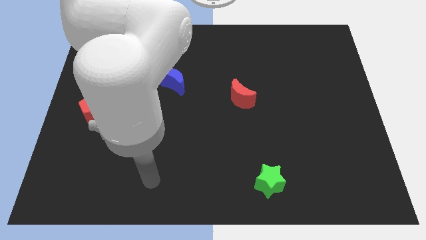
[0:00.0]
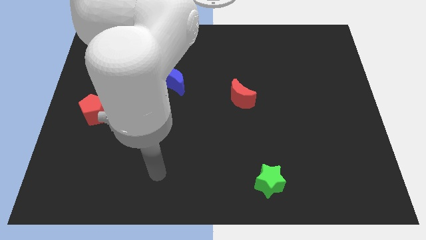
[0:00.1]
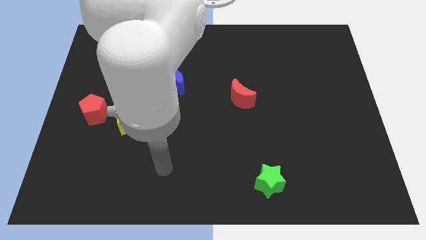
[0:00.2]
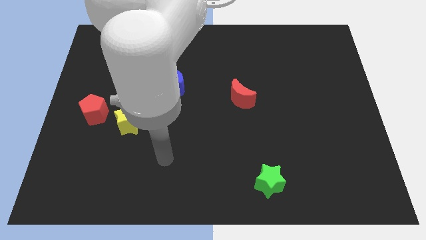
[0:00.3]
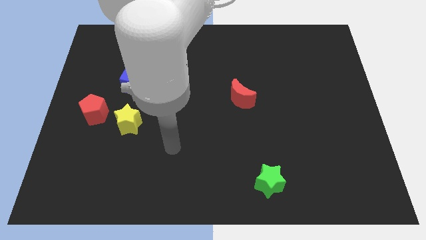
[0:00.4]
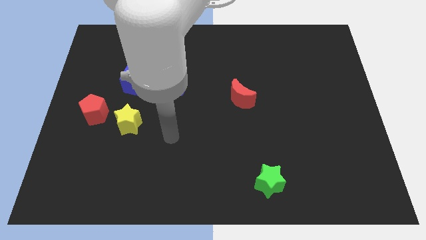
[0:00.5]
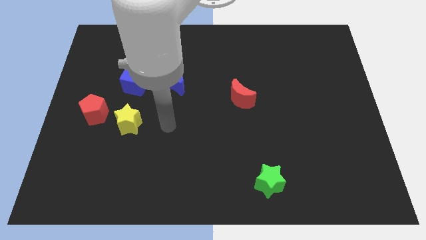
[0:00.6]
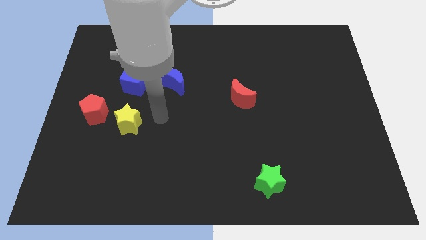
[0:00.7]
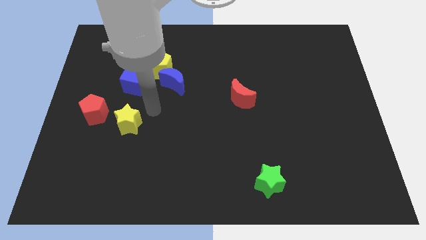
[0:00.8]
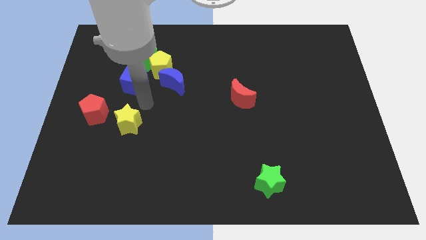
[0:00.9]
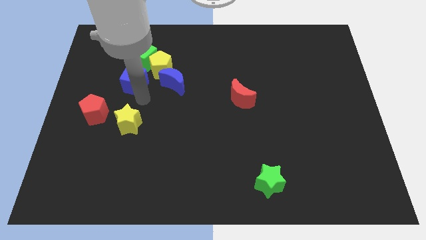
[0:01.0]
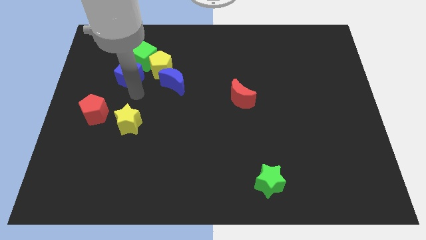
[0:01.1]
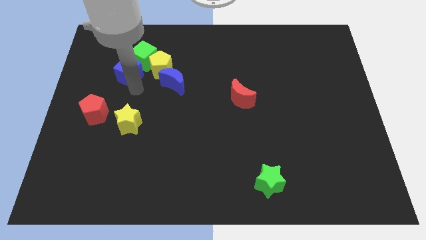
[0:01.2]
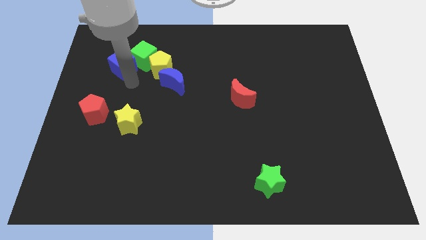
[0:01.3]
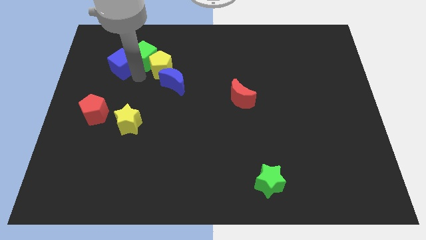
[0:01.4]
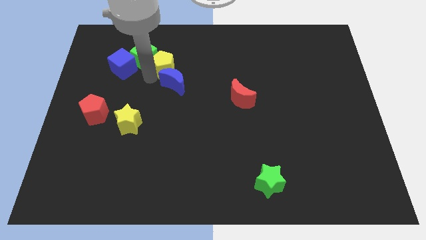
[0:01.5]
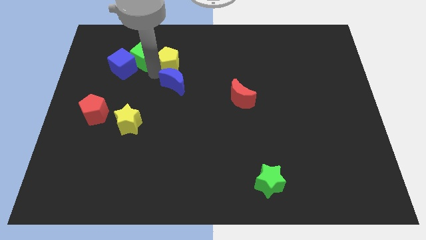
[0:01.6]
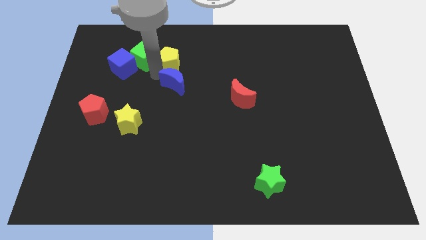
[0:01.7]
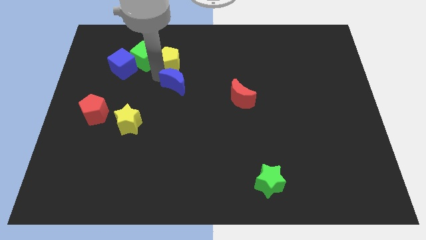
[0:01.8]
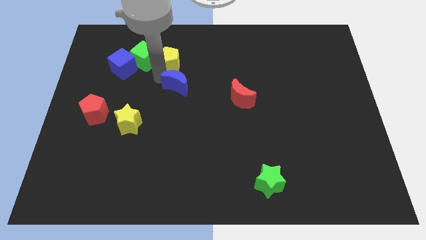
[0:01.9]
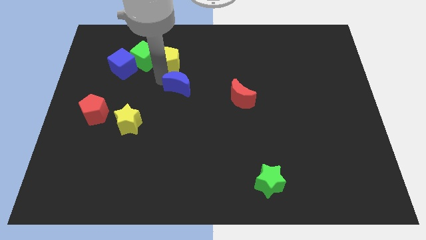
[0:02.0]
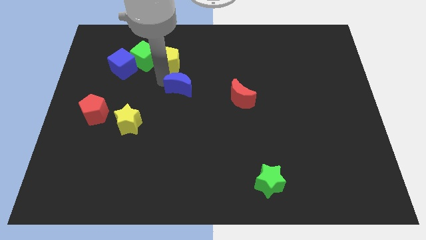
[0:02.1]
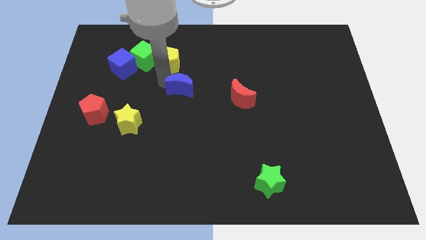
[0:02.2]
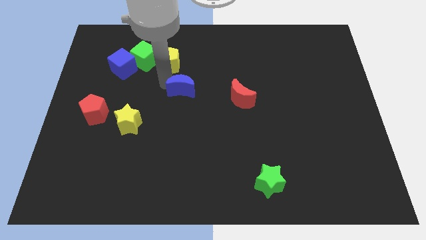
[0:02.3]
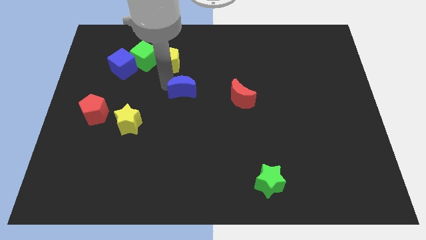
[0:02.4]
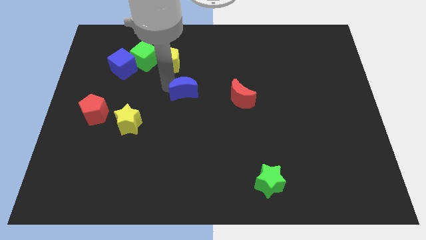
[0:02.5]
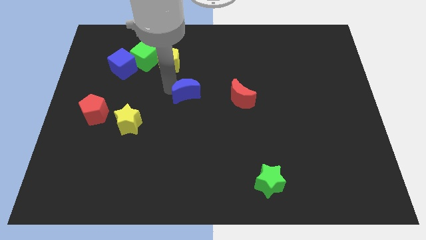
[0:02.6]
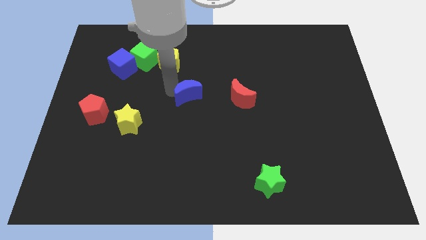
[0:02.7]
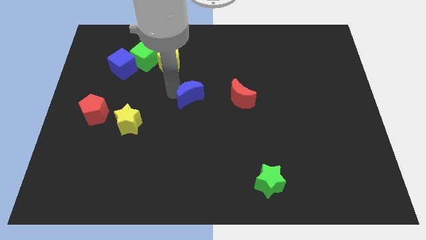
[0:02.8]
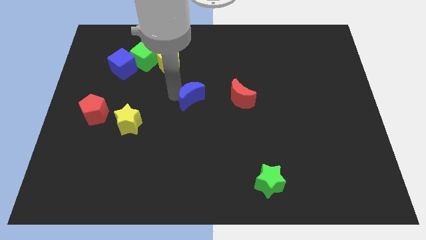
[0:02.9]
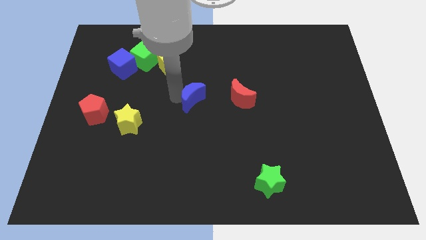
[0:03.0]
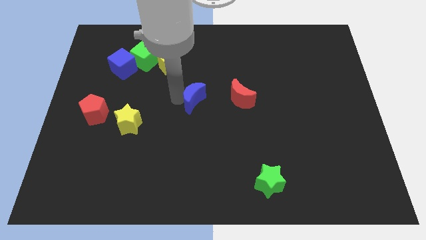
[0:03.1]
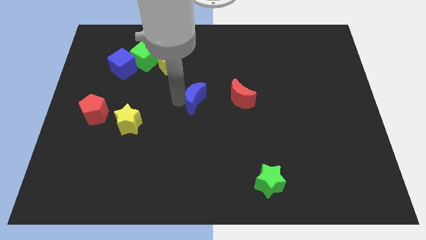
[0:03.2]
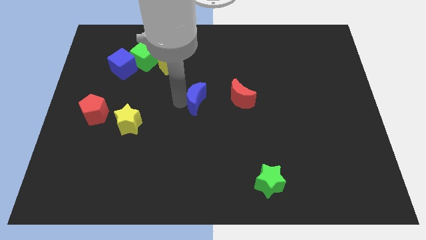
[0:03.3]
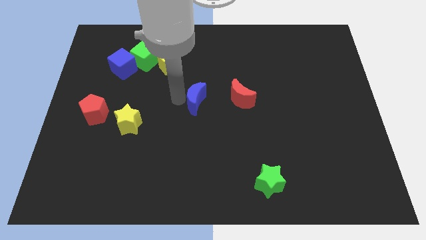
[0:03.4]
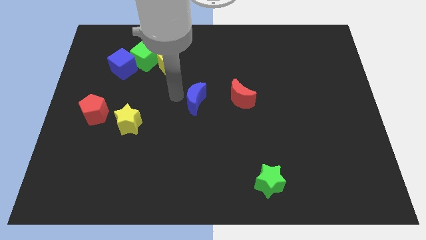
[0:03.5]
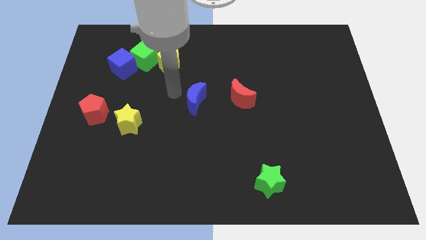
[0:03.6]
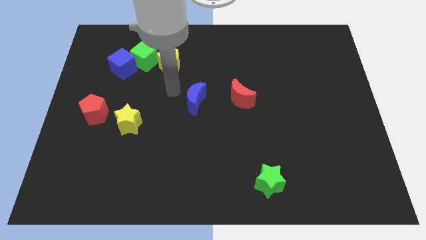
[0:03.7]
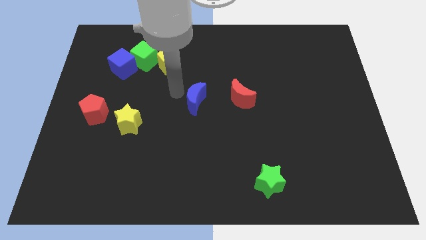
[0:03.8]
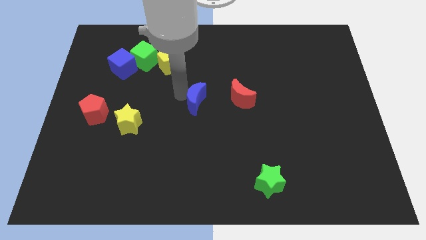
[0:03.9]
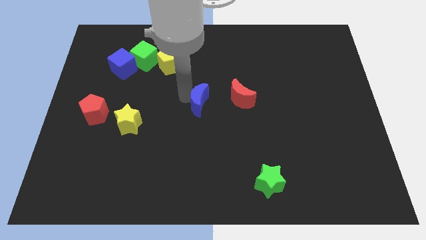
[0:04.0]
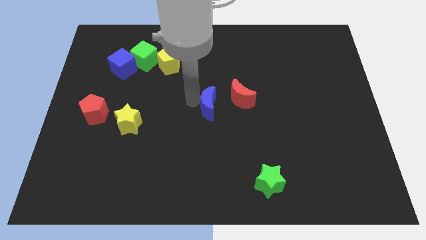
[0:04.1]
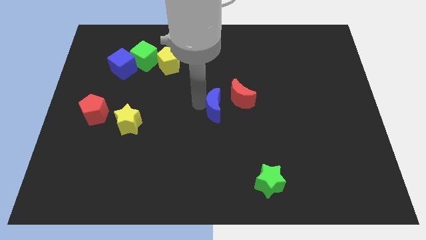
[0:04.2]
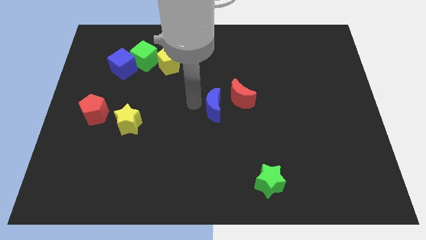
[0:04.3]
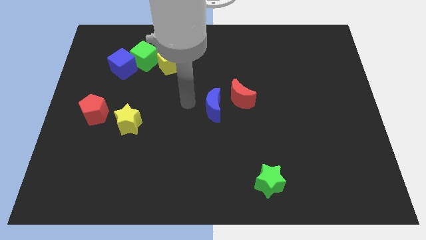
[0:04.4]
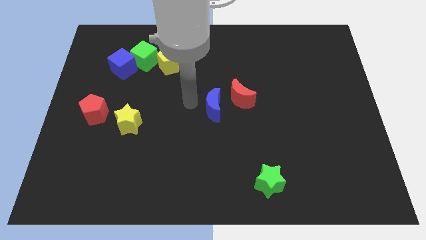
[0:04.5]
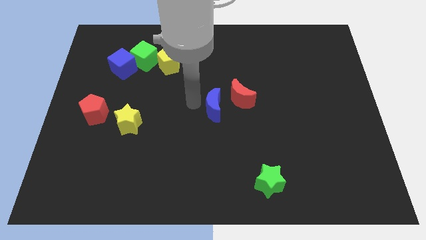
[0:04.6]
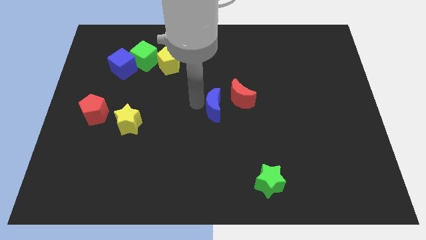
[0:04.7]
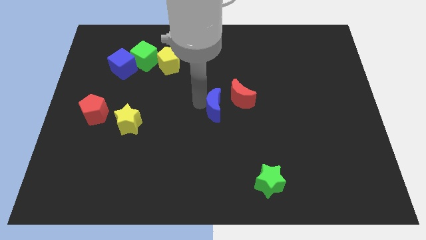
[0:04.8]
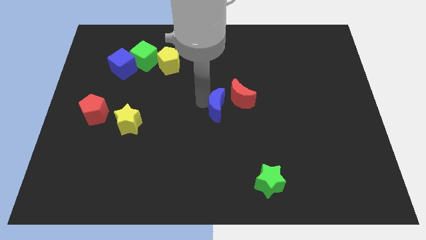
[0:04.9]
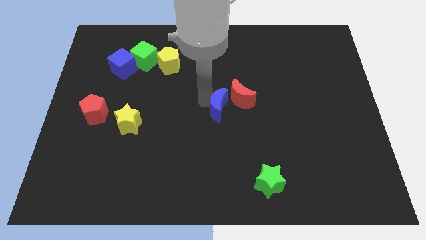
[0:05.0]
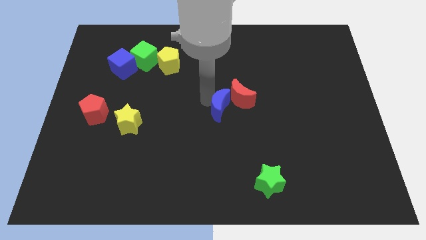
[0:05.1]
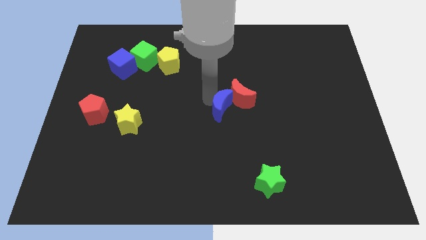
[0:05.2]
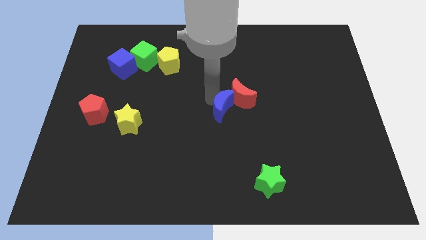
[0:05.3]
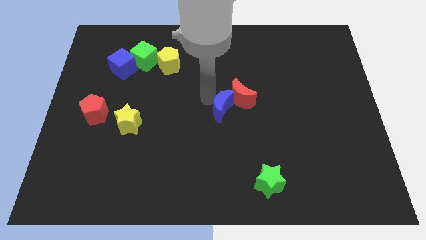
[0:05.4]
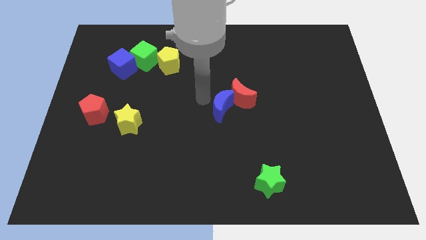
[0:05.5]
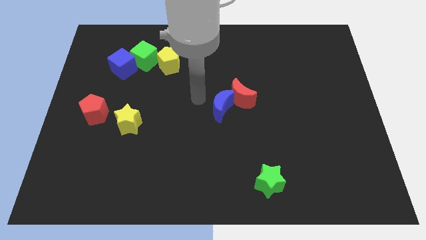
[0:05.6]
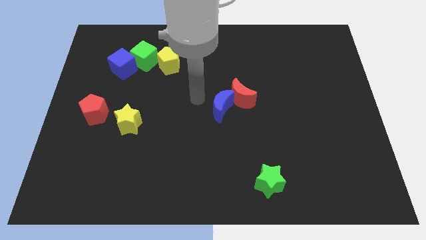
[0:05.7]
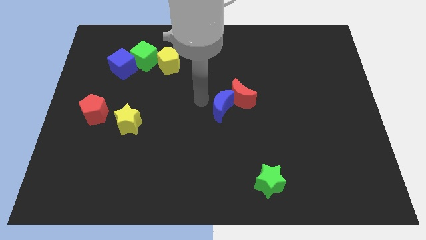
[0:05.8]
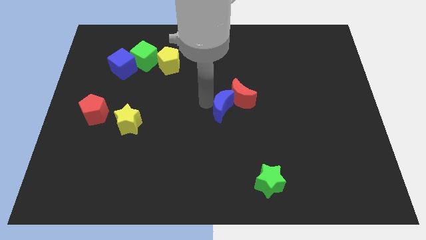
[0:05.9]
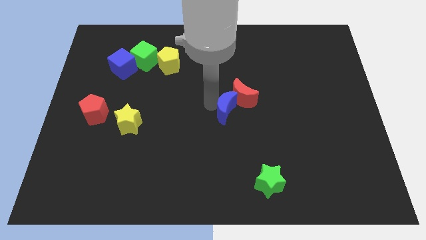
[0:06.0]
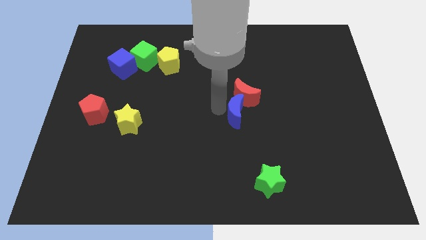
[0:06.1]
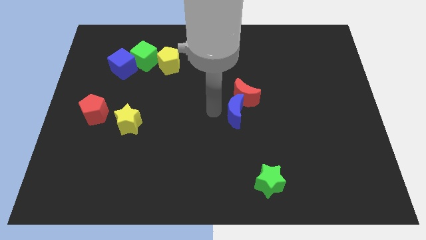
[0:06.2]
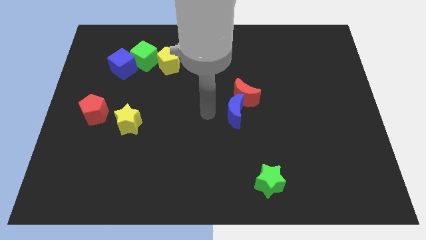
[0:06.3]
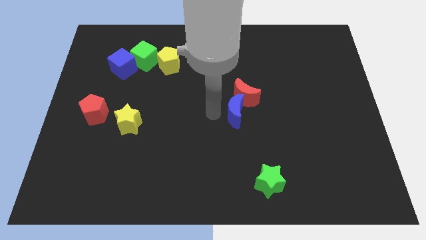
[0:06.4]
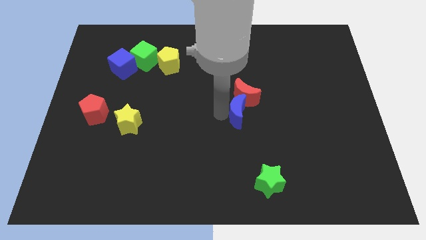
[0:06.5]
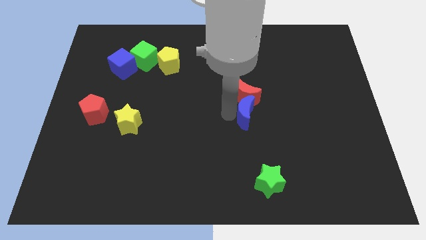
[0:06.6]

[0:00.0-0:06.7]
slide the blue moon diagonally down and to the right of the red moon

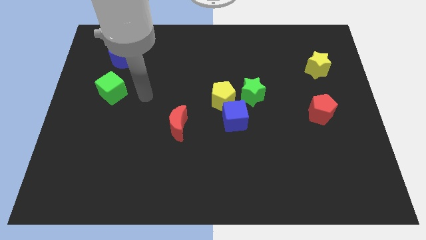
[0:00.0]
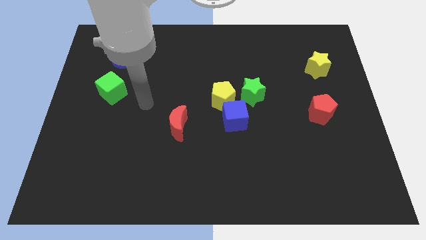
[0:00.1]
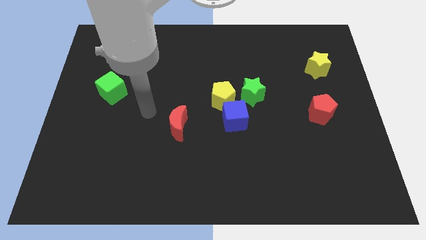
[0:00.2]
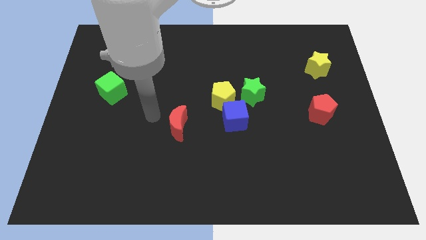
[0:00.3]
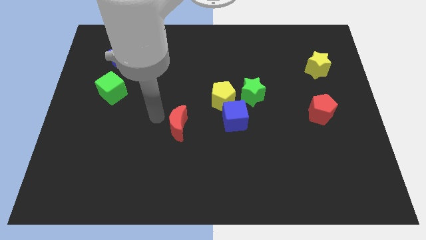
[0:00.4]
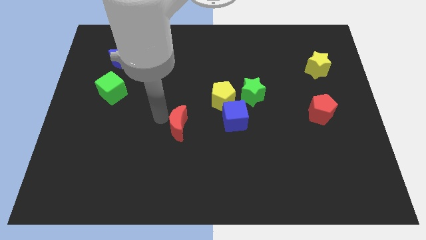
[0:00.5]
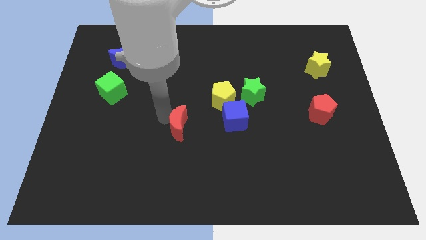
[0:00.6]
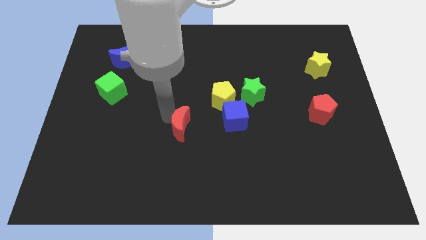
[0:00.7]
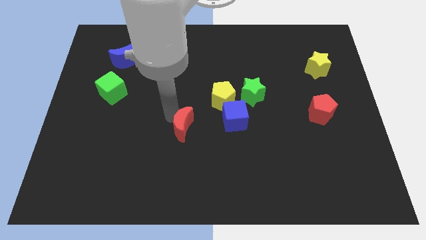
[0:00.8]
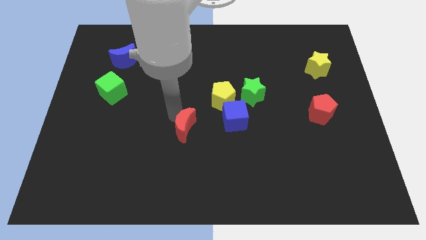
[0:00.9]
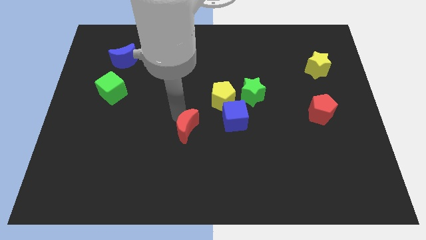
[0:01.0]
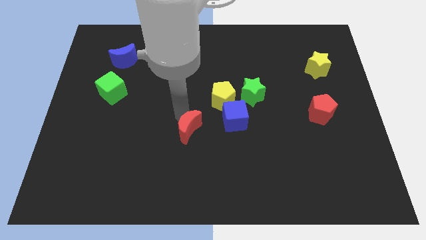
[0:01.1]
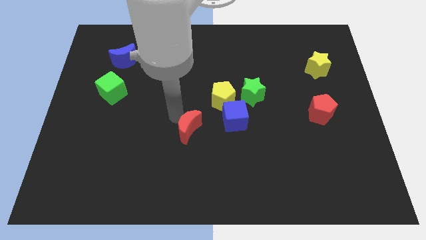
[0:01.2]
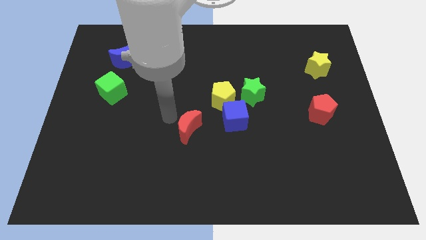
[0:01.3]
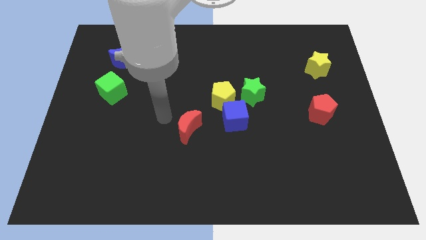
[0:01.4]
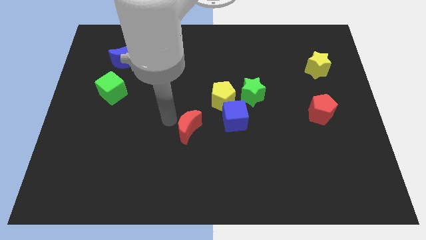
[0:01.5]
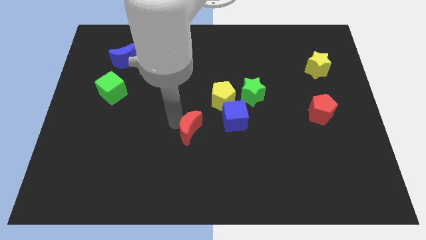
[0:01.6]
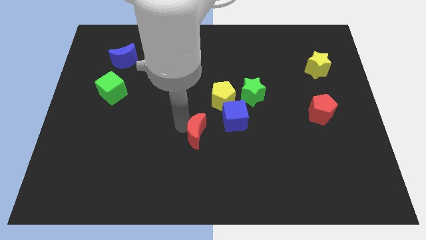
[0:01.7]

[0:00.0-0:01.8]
slide the red moon diagonally down and to the left of the blue cube
